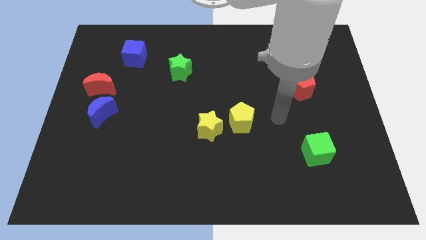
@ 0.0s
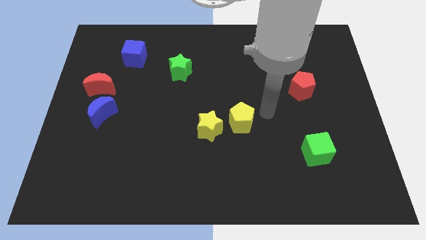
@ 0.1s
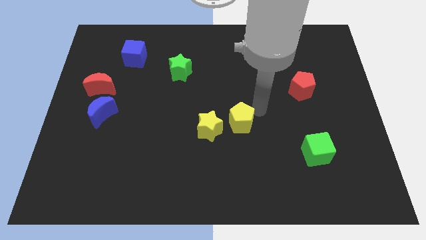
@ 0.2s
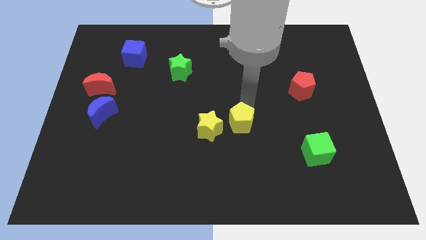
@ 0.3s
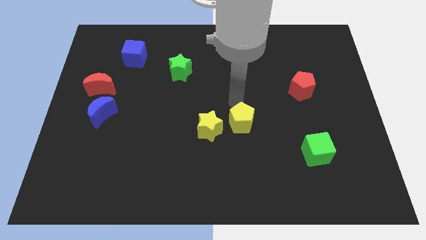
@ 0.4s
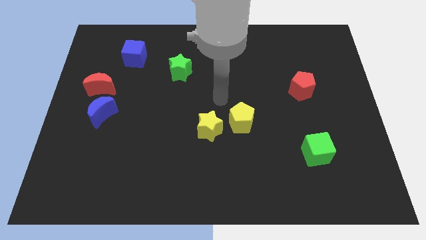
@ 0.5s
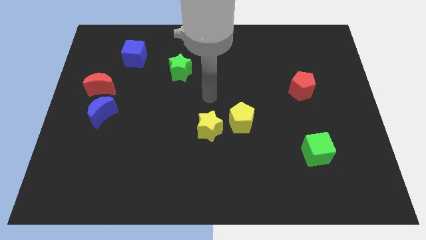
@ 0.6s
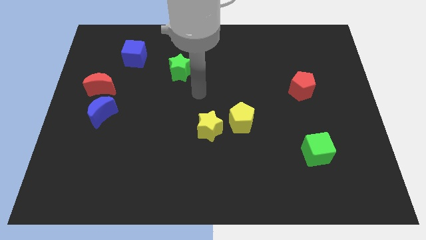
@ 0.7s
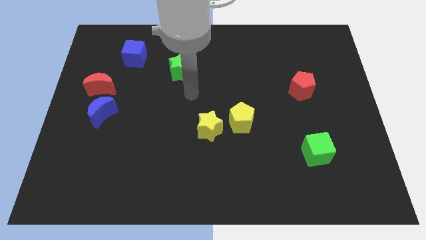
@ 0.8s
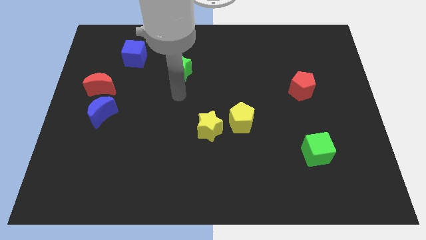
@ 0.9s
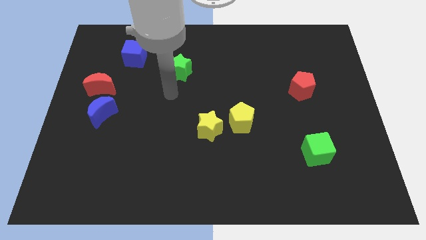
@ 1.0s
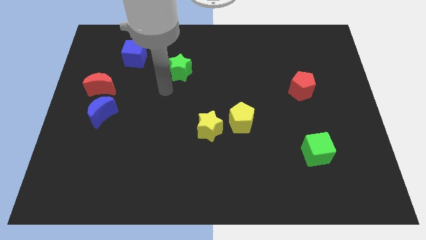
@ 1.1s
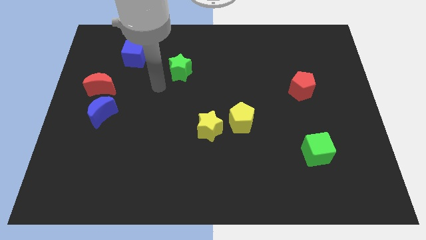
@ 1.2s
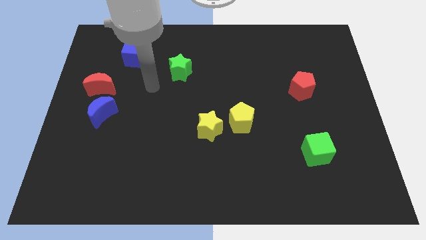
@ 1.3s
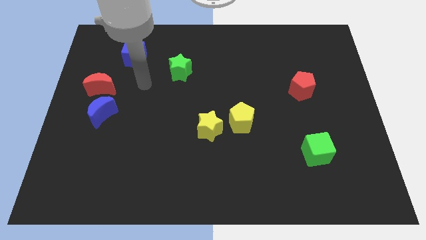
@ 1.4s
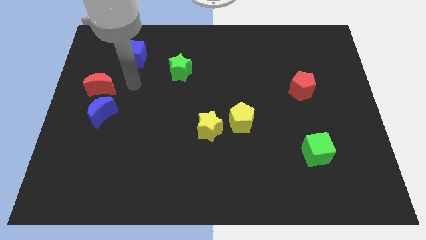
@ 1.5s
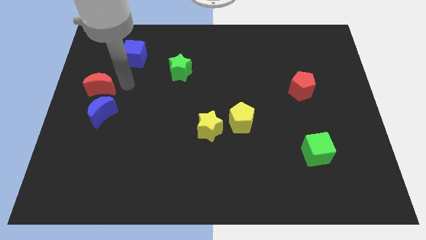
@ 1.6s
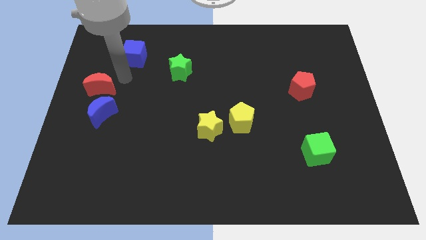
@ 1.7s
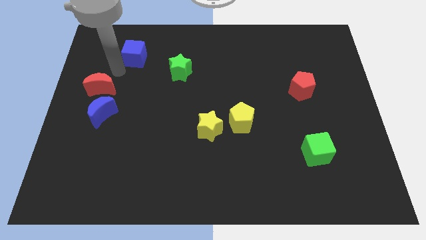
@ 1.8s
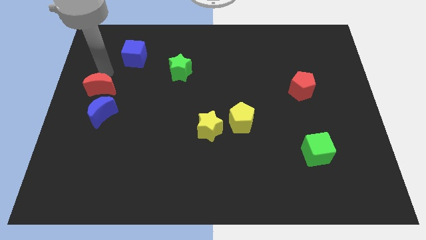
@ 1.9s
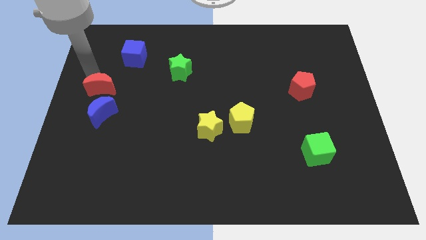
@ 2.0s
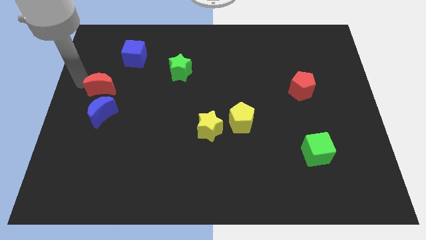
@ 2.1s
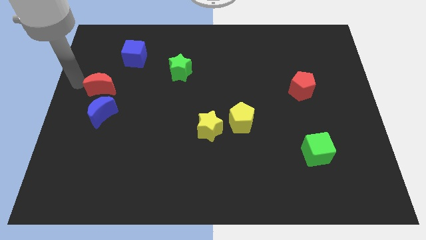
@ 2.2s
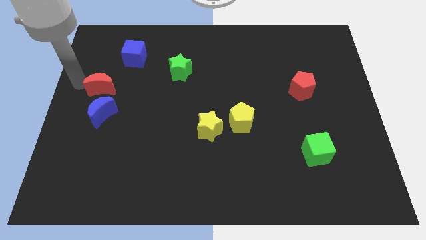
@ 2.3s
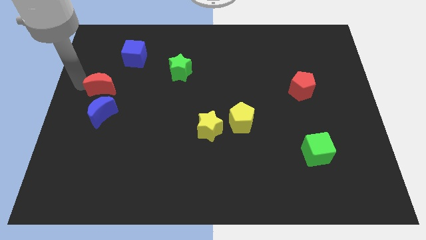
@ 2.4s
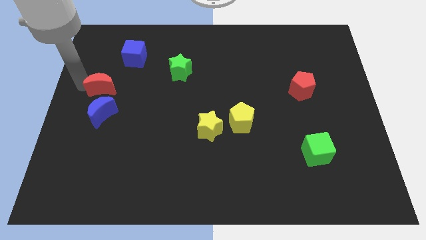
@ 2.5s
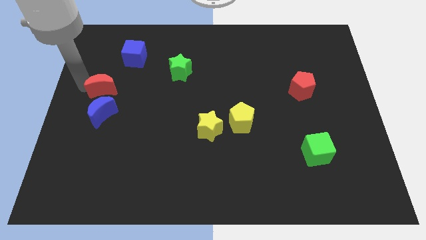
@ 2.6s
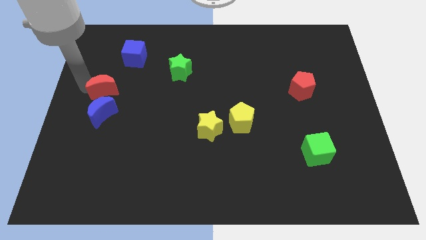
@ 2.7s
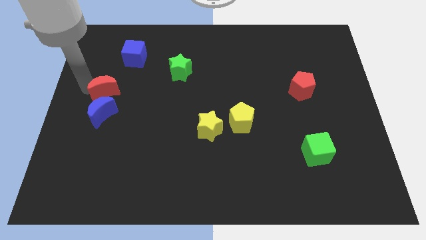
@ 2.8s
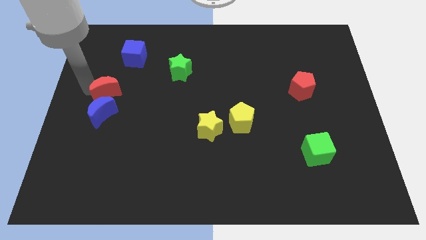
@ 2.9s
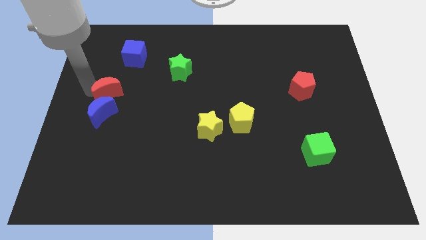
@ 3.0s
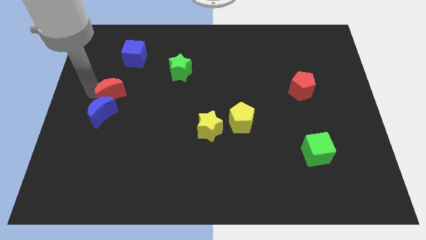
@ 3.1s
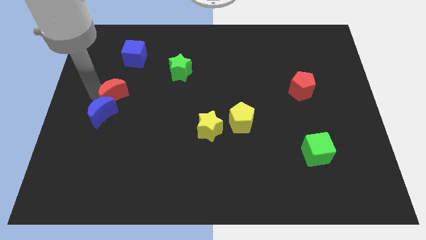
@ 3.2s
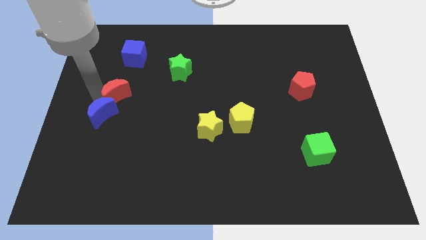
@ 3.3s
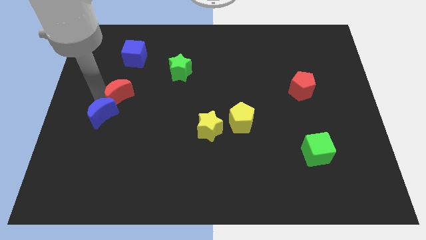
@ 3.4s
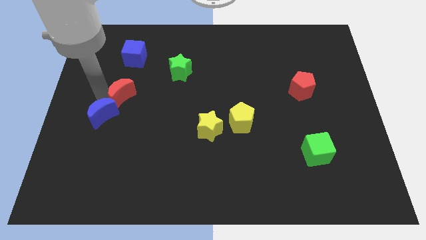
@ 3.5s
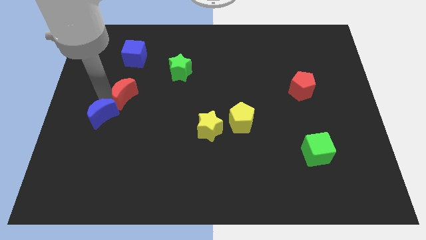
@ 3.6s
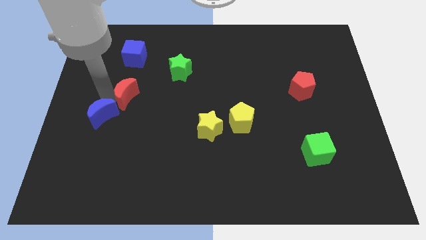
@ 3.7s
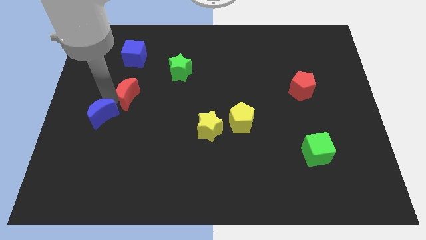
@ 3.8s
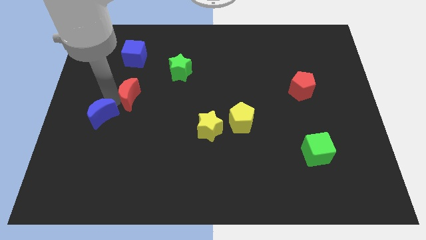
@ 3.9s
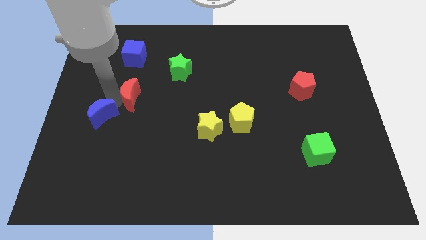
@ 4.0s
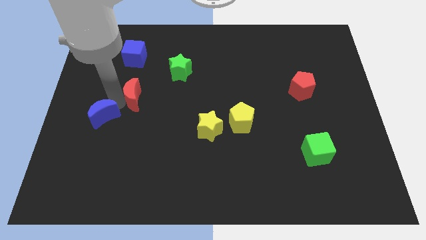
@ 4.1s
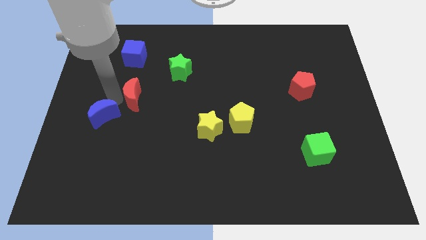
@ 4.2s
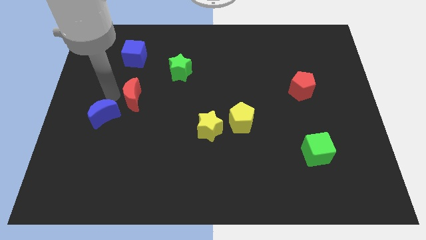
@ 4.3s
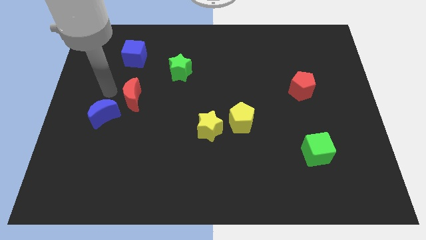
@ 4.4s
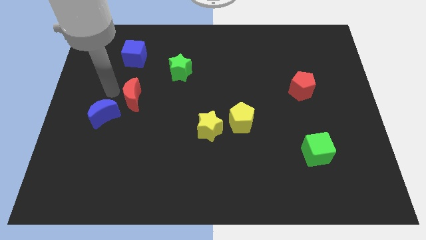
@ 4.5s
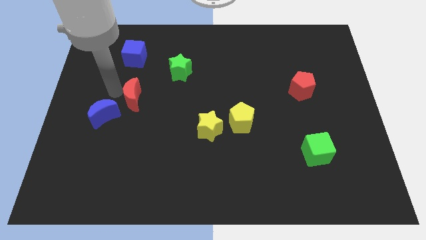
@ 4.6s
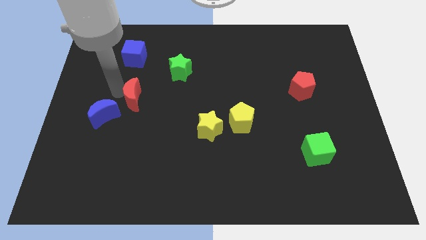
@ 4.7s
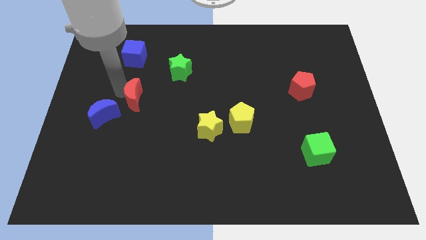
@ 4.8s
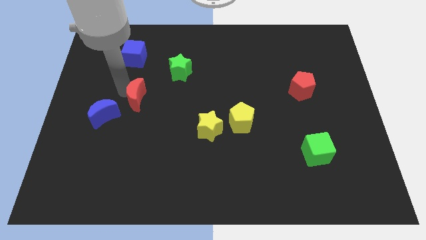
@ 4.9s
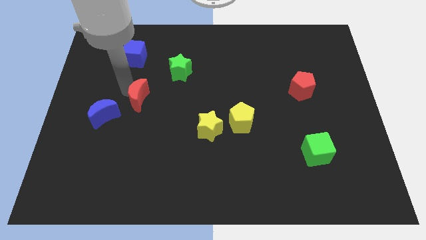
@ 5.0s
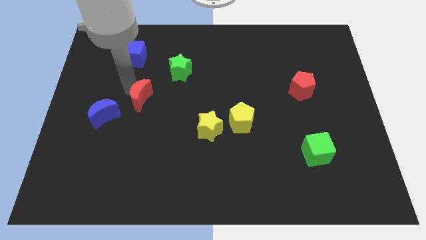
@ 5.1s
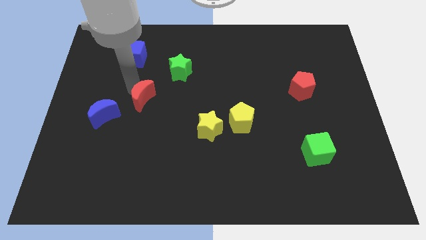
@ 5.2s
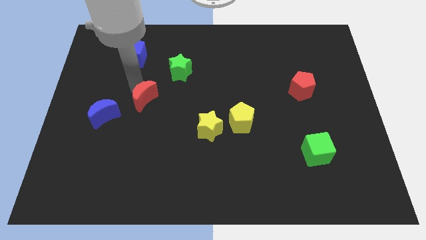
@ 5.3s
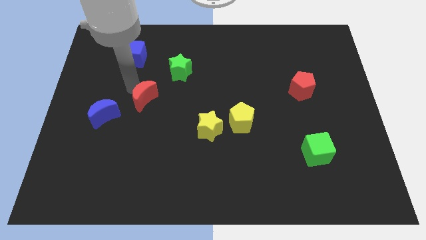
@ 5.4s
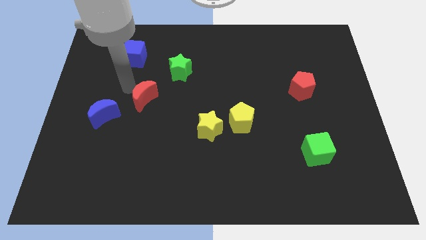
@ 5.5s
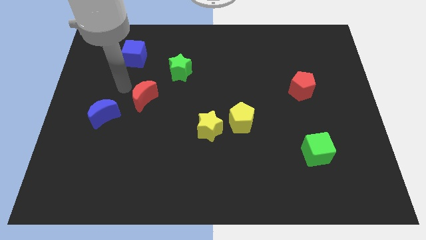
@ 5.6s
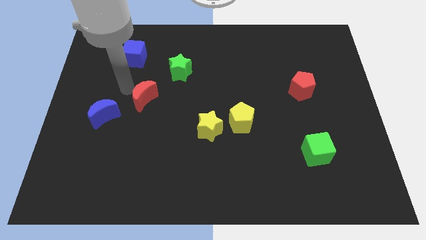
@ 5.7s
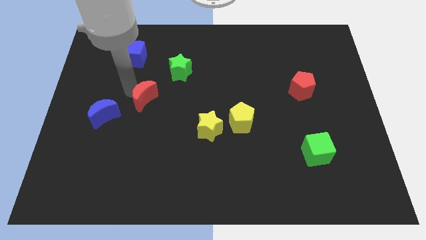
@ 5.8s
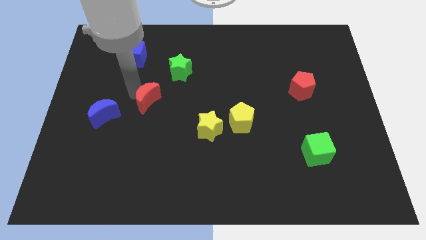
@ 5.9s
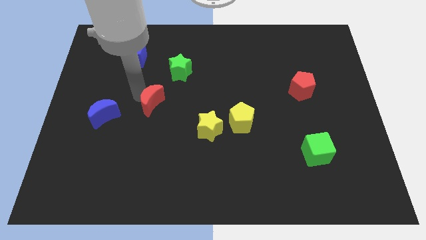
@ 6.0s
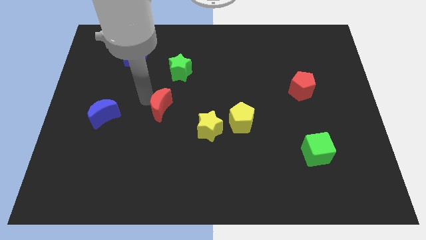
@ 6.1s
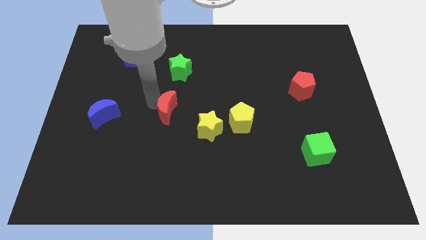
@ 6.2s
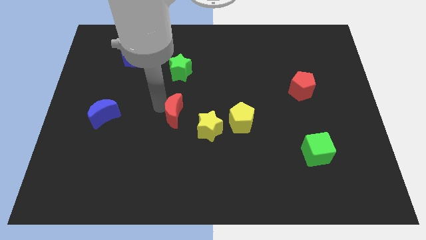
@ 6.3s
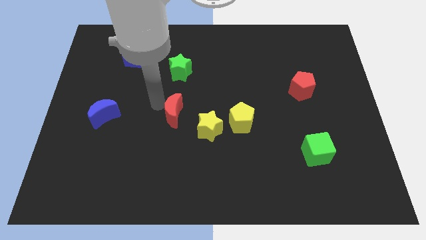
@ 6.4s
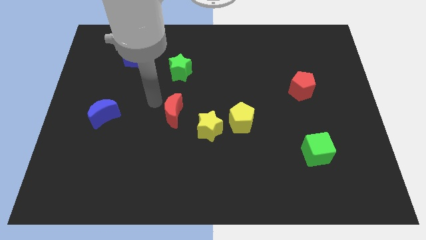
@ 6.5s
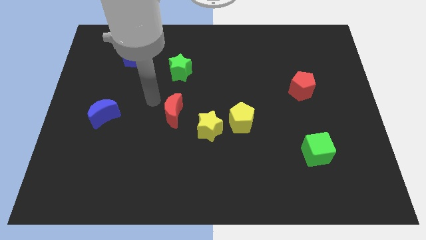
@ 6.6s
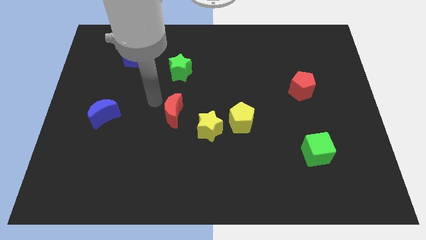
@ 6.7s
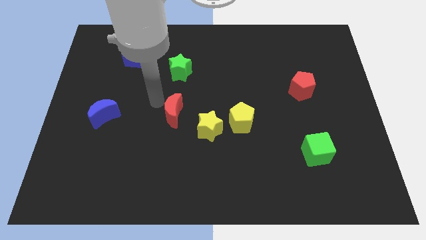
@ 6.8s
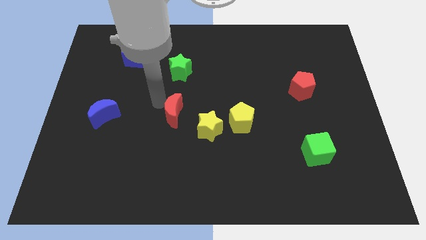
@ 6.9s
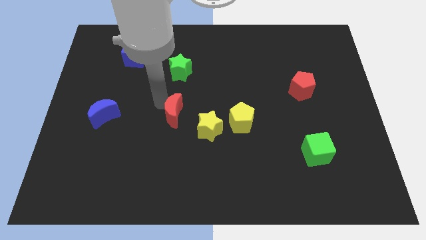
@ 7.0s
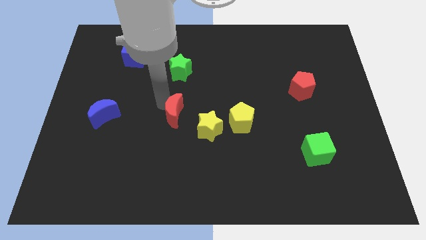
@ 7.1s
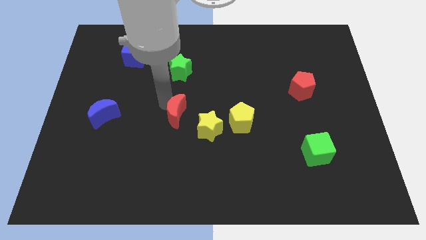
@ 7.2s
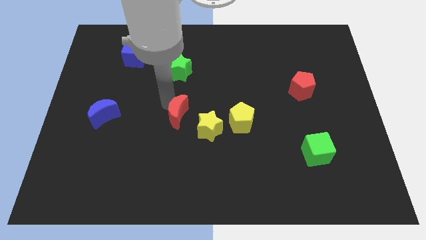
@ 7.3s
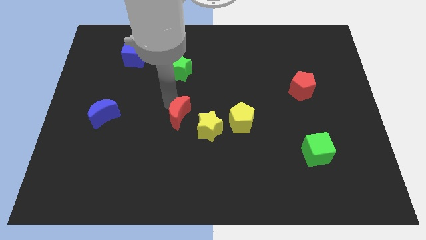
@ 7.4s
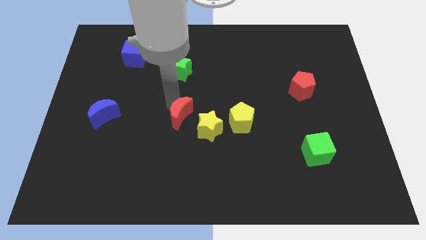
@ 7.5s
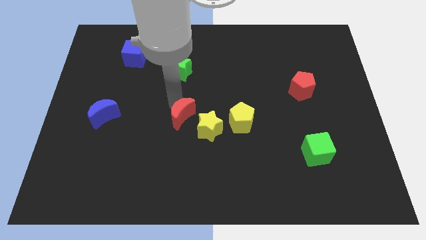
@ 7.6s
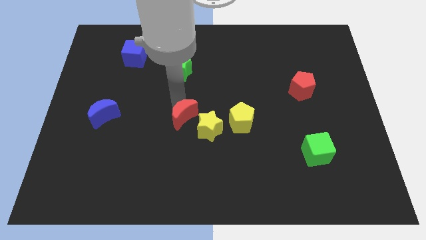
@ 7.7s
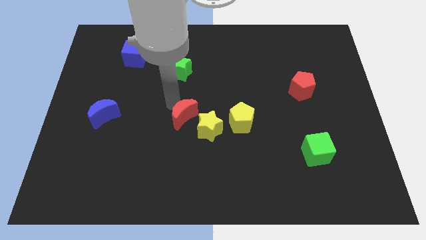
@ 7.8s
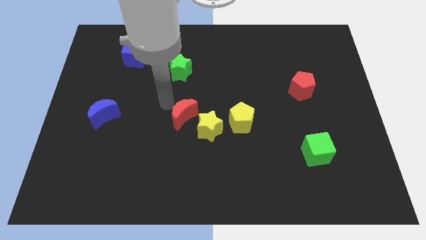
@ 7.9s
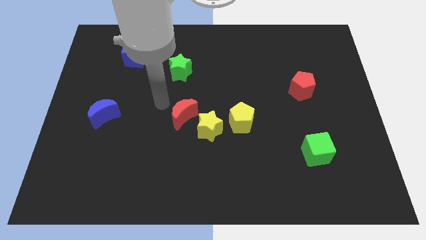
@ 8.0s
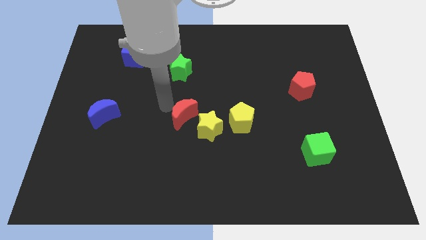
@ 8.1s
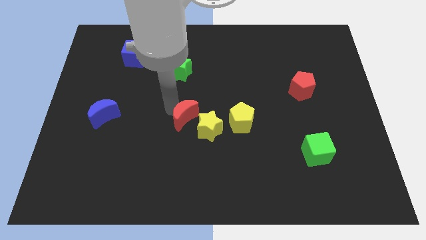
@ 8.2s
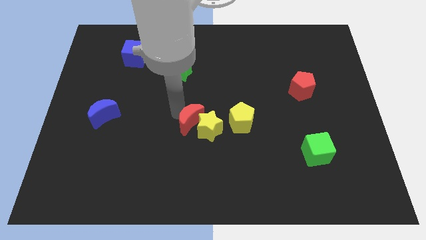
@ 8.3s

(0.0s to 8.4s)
put the red moon towards the yellow star
